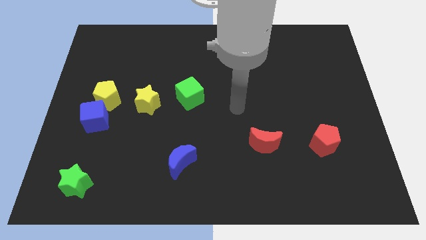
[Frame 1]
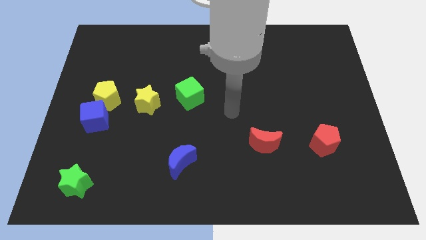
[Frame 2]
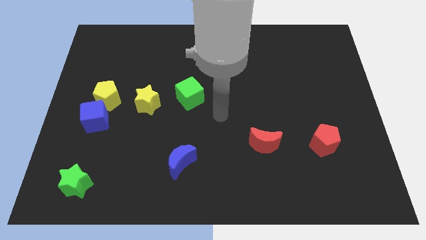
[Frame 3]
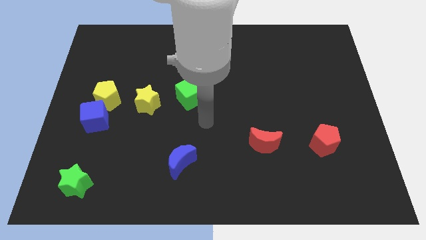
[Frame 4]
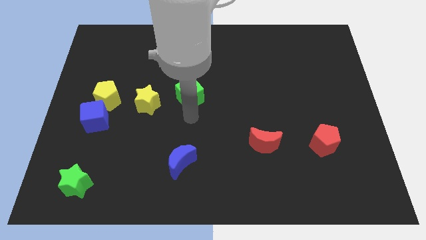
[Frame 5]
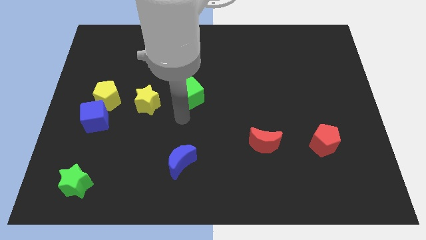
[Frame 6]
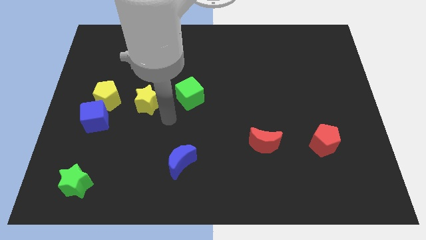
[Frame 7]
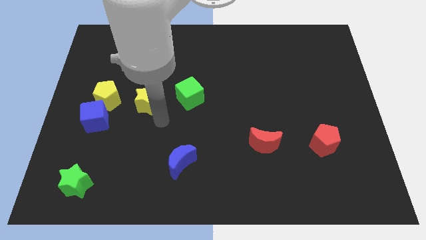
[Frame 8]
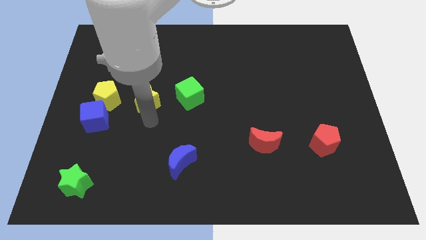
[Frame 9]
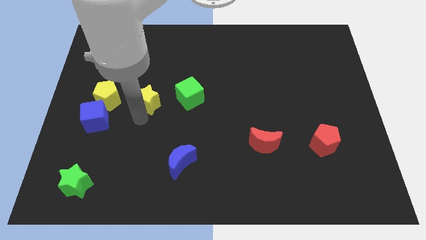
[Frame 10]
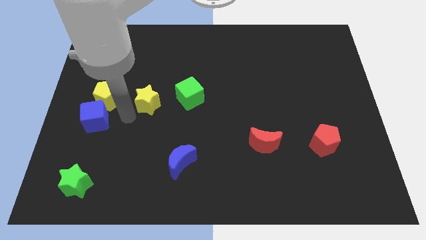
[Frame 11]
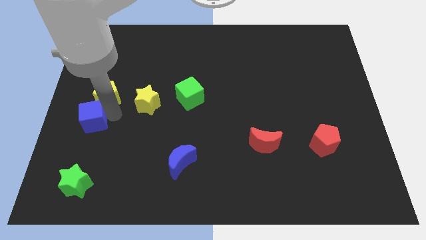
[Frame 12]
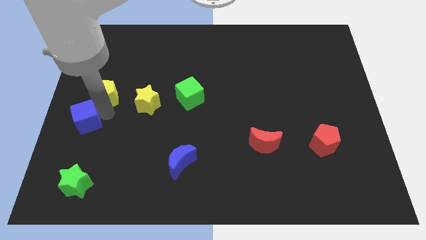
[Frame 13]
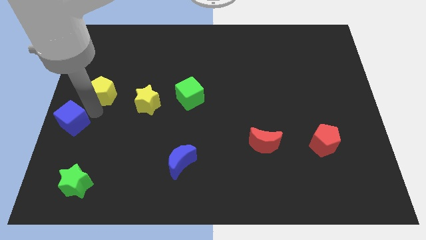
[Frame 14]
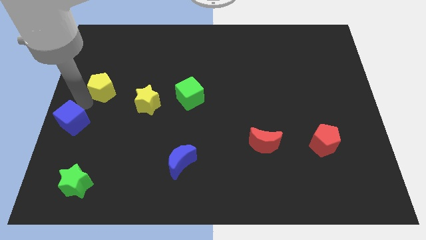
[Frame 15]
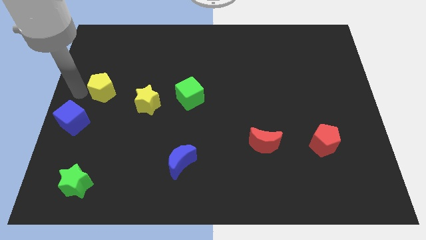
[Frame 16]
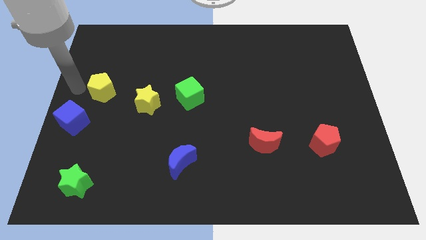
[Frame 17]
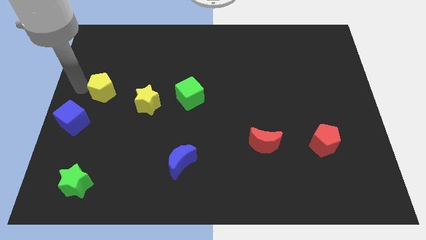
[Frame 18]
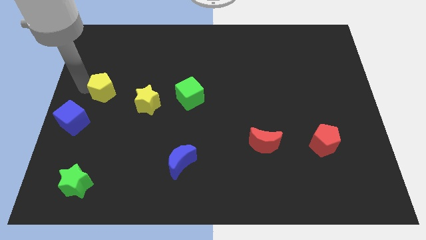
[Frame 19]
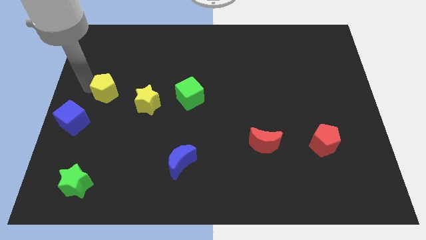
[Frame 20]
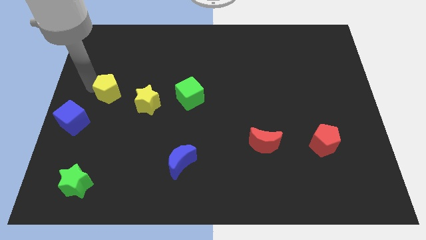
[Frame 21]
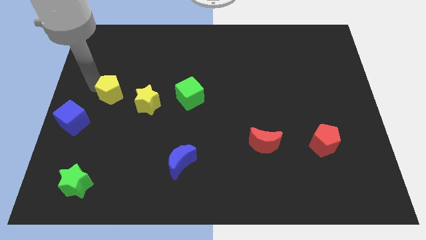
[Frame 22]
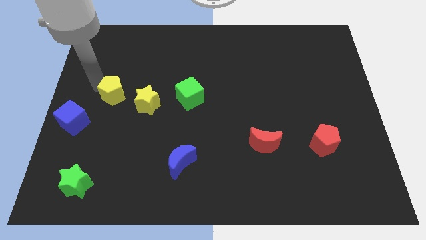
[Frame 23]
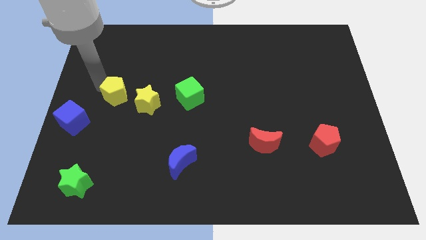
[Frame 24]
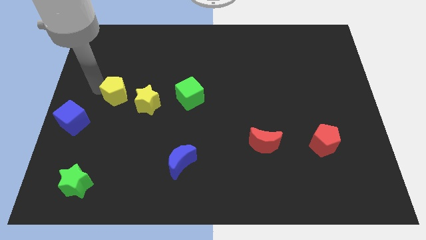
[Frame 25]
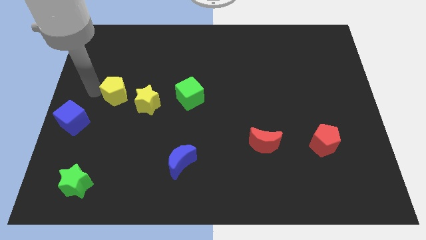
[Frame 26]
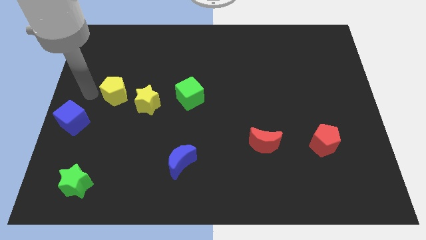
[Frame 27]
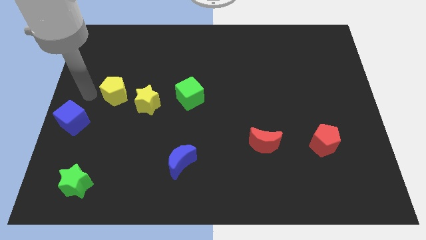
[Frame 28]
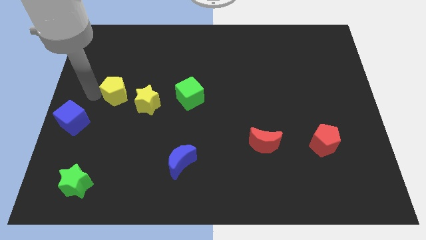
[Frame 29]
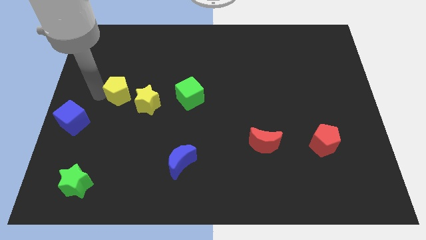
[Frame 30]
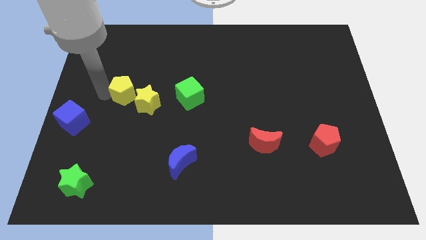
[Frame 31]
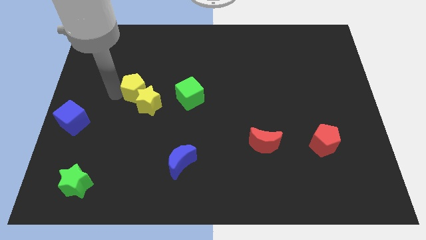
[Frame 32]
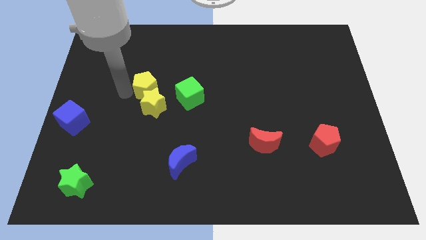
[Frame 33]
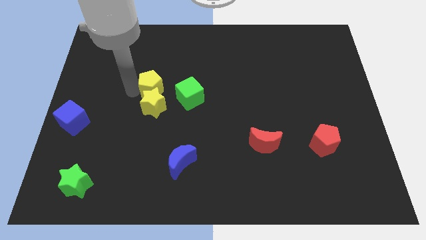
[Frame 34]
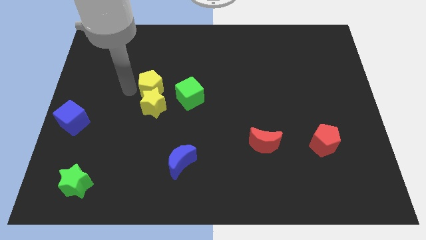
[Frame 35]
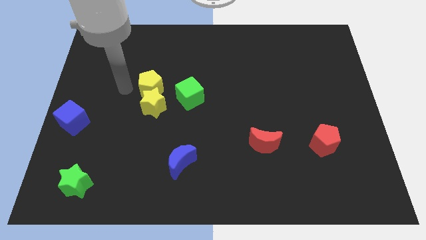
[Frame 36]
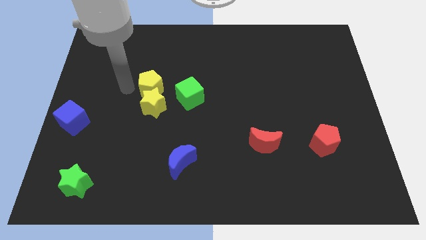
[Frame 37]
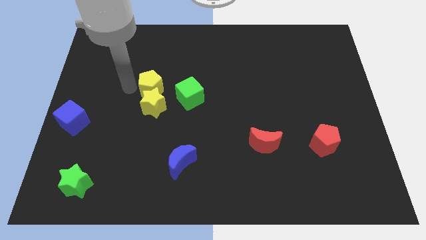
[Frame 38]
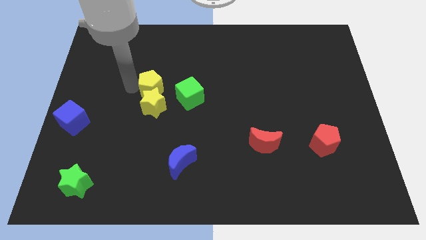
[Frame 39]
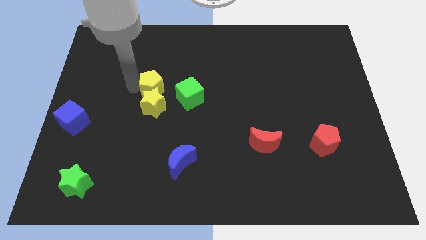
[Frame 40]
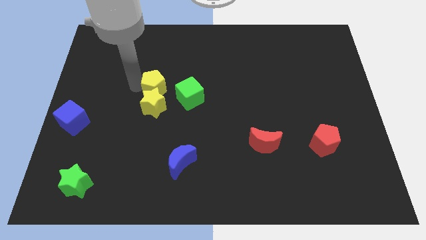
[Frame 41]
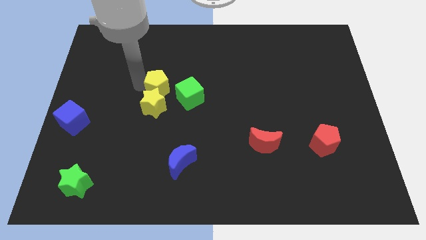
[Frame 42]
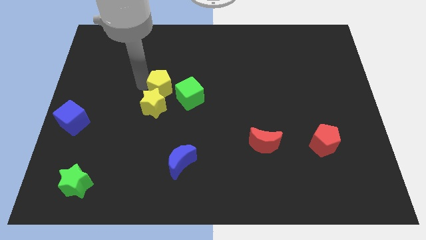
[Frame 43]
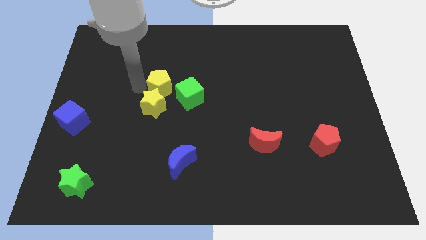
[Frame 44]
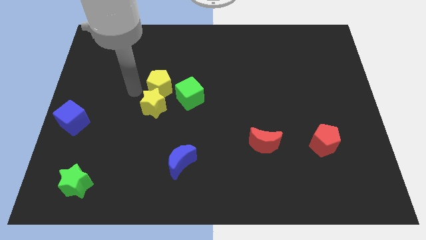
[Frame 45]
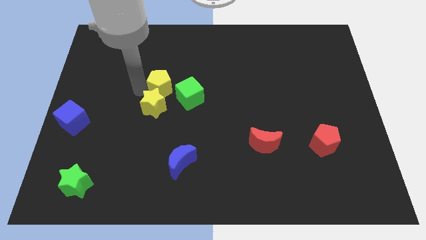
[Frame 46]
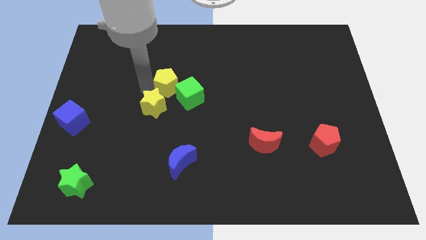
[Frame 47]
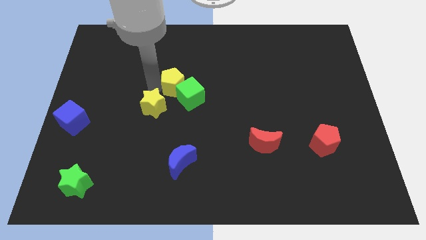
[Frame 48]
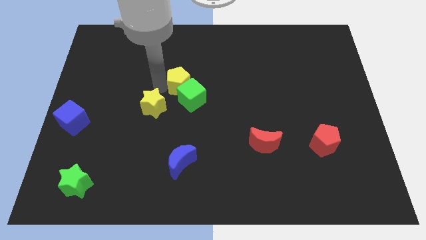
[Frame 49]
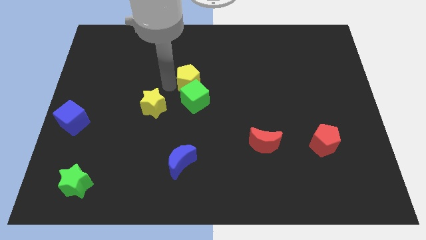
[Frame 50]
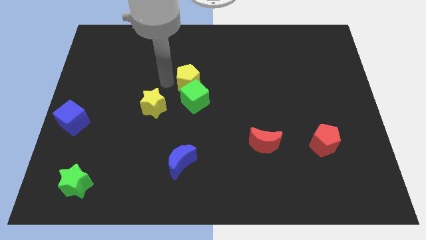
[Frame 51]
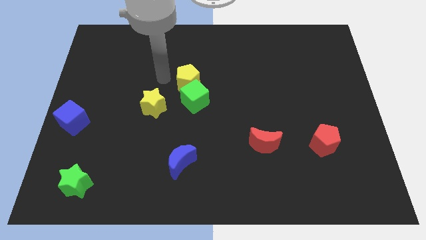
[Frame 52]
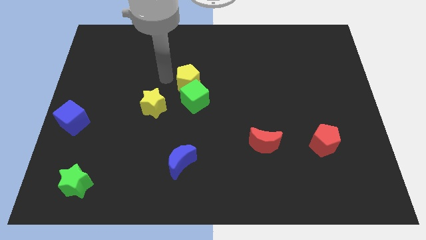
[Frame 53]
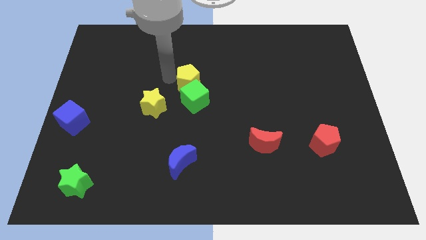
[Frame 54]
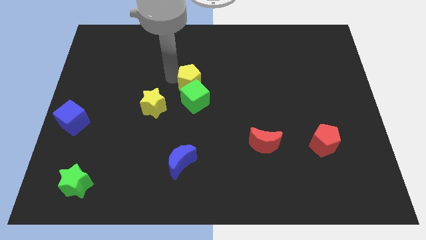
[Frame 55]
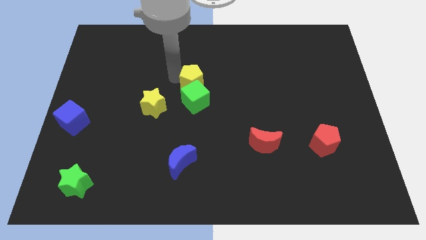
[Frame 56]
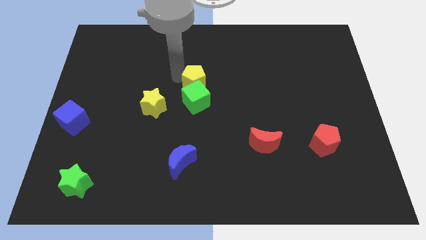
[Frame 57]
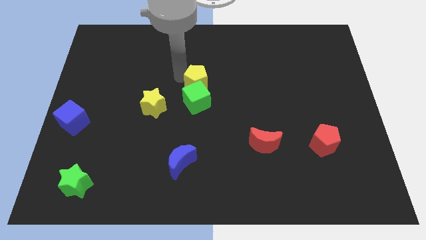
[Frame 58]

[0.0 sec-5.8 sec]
slide the yellow pentagon right

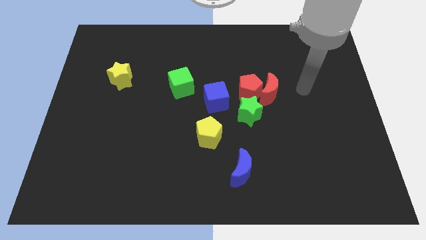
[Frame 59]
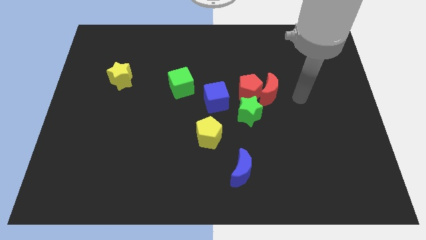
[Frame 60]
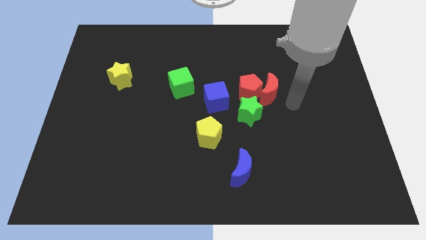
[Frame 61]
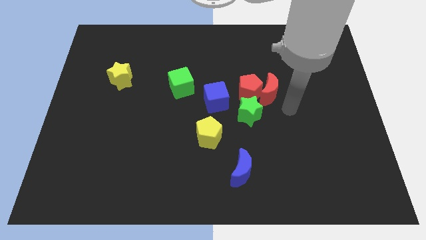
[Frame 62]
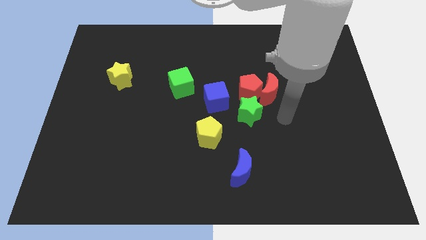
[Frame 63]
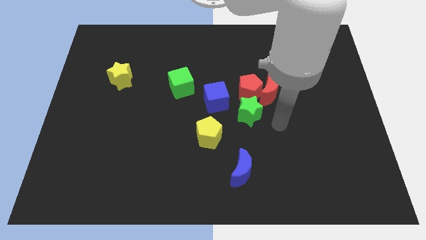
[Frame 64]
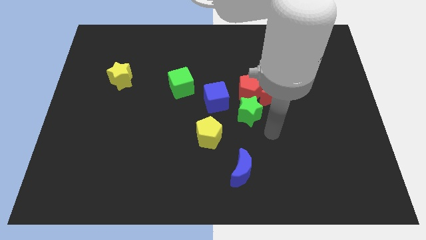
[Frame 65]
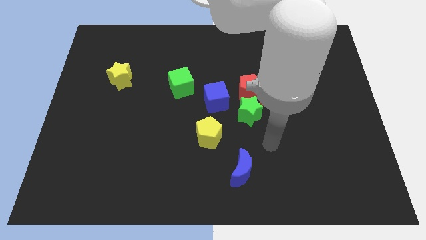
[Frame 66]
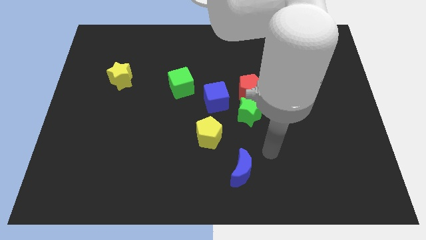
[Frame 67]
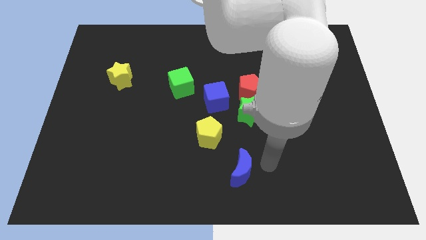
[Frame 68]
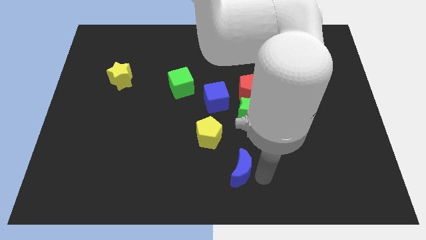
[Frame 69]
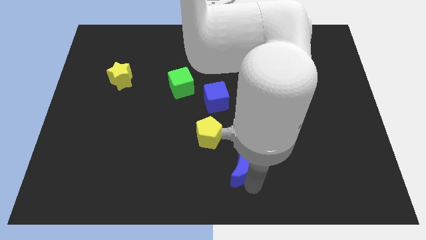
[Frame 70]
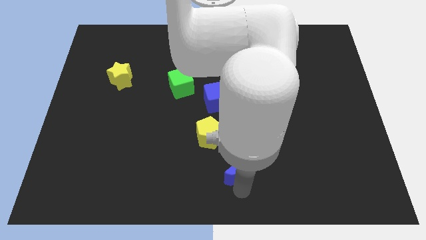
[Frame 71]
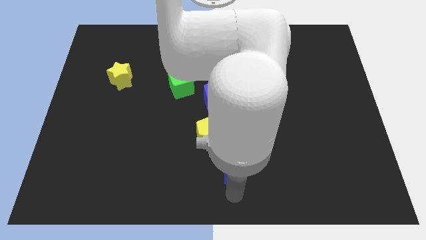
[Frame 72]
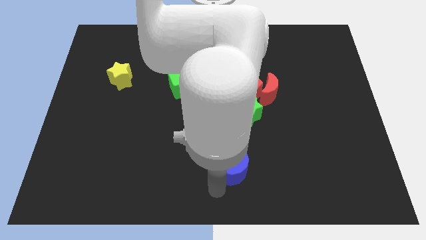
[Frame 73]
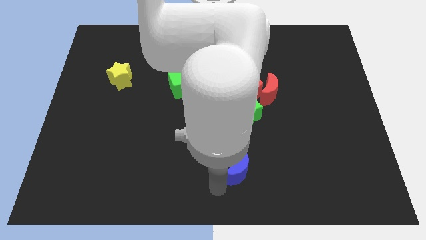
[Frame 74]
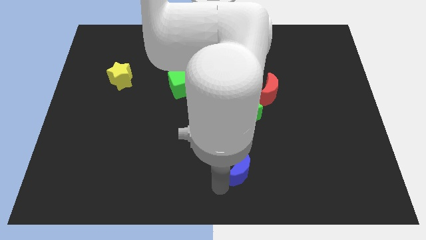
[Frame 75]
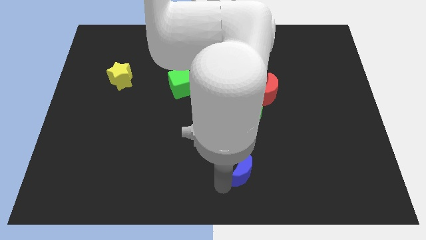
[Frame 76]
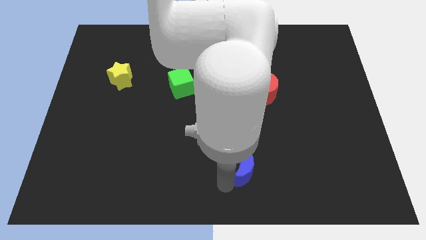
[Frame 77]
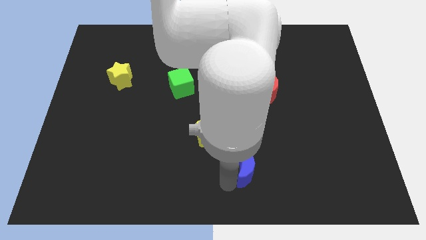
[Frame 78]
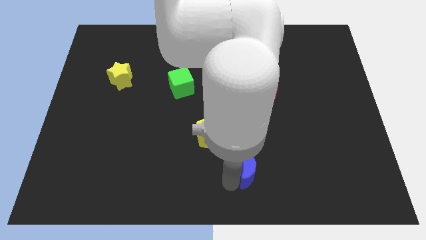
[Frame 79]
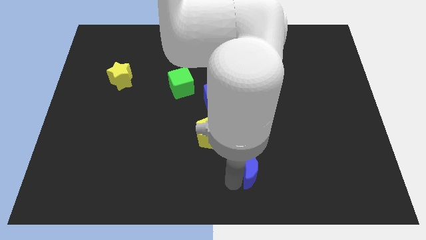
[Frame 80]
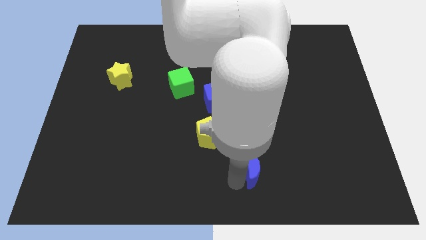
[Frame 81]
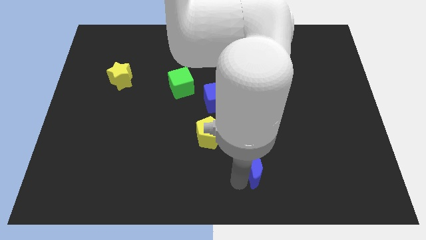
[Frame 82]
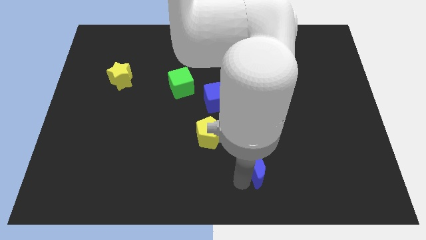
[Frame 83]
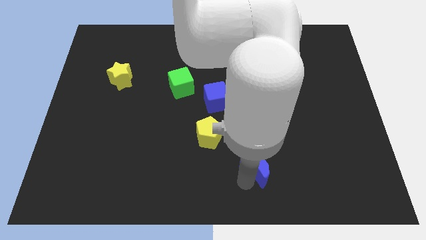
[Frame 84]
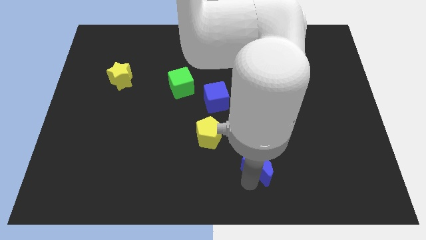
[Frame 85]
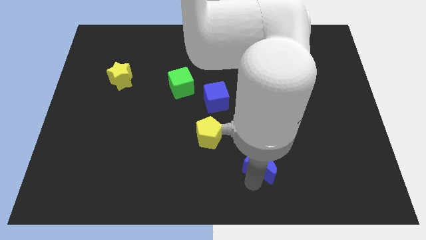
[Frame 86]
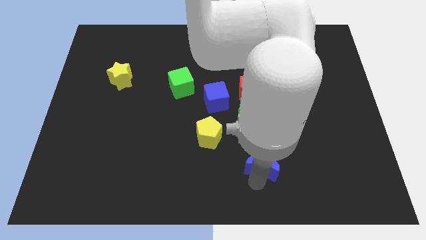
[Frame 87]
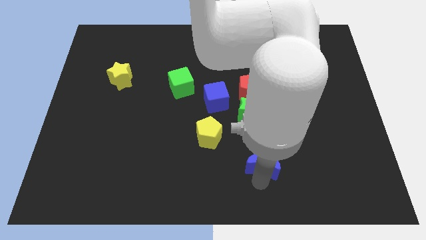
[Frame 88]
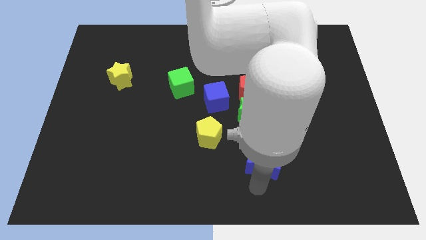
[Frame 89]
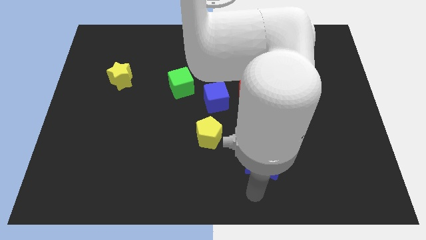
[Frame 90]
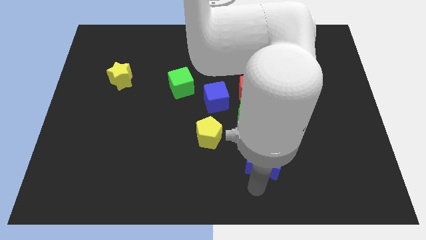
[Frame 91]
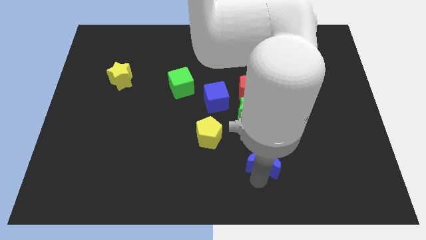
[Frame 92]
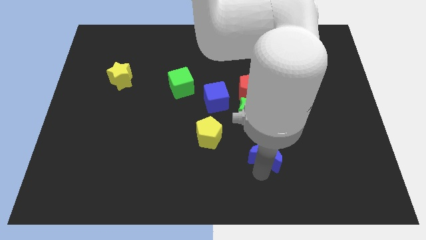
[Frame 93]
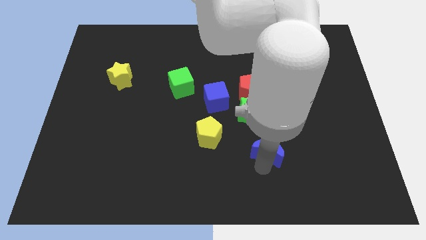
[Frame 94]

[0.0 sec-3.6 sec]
push the blue moon upwards and to the right a little bit
